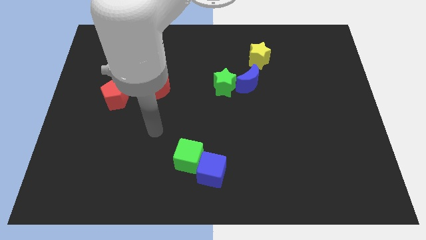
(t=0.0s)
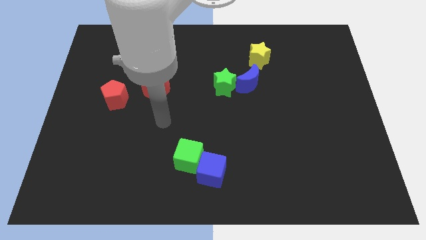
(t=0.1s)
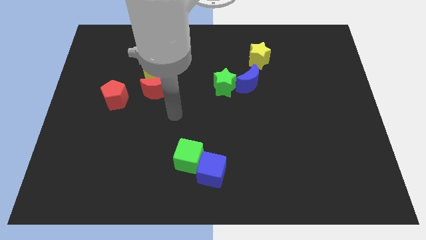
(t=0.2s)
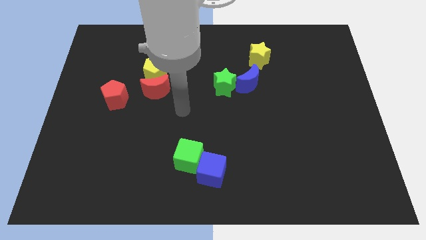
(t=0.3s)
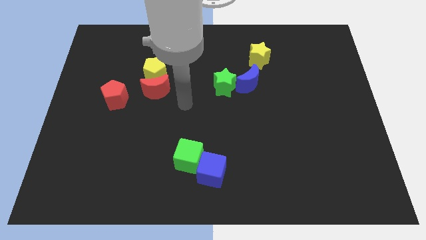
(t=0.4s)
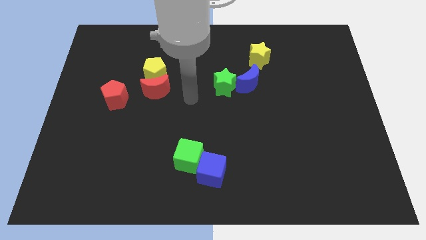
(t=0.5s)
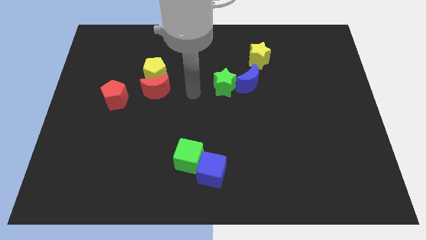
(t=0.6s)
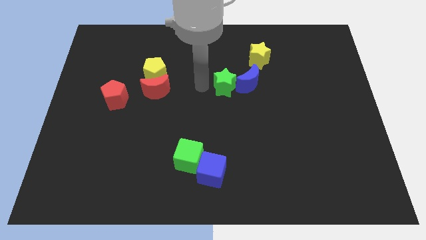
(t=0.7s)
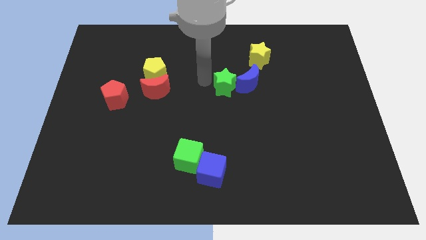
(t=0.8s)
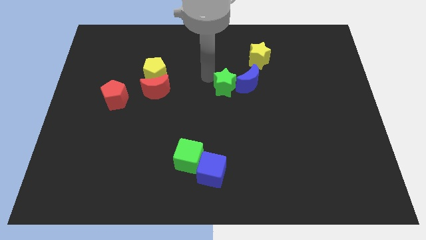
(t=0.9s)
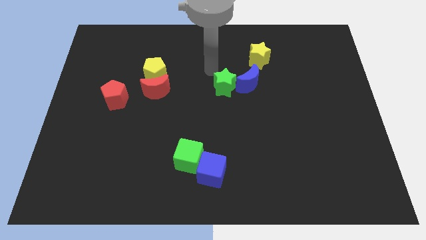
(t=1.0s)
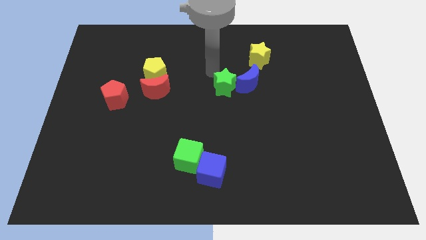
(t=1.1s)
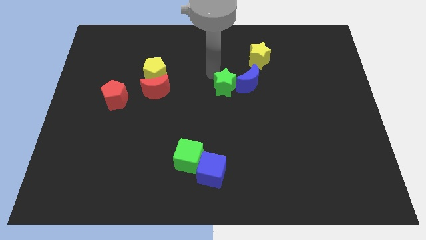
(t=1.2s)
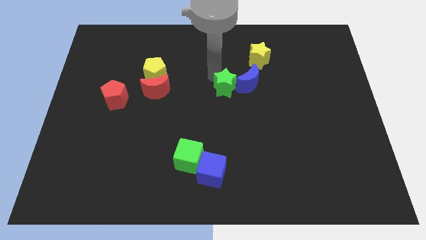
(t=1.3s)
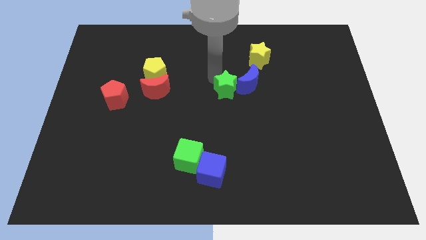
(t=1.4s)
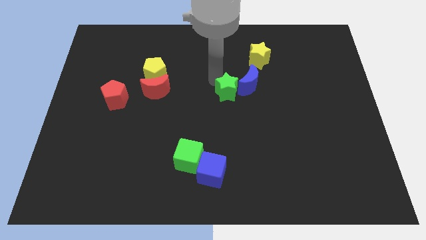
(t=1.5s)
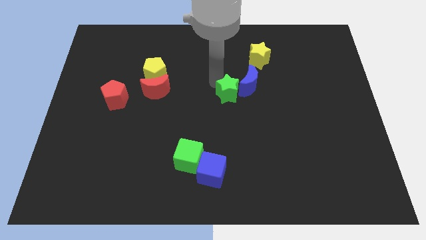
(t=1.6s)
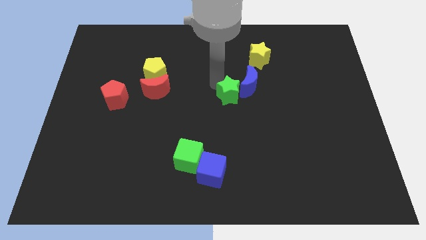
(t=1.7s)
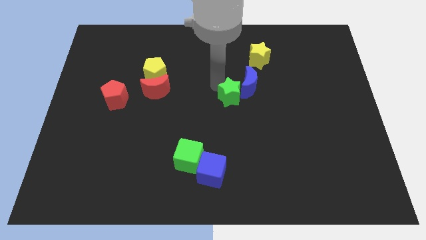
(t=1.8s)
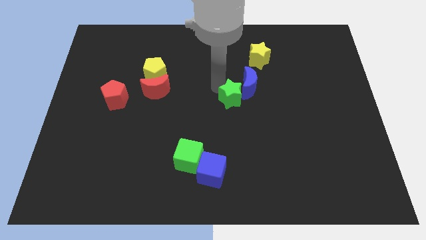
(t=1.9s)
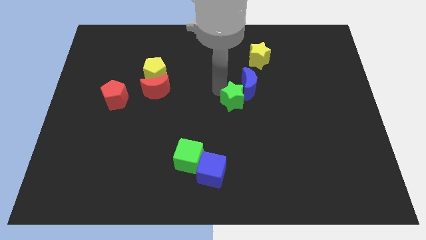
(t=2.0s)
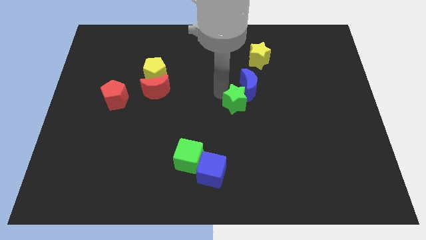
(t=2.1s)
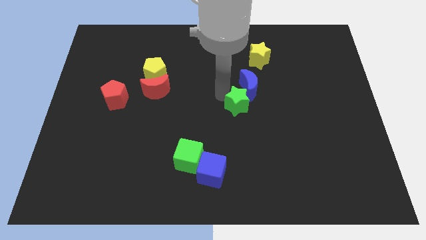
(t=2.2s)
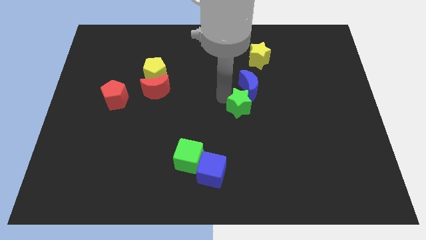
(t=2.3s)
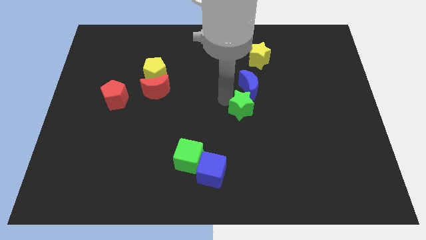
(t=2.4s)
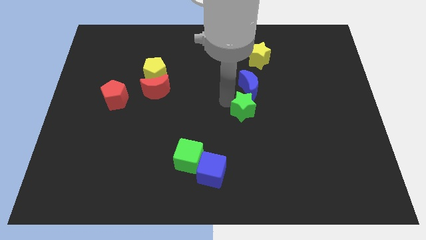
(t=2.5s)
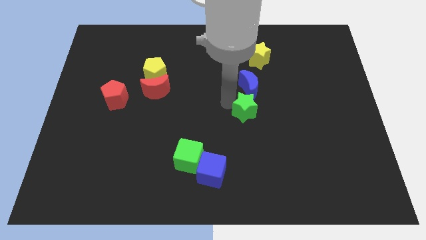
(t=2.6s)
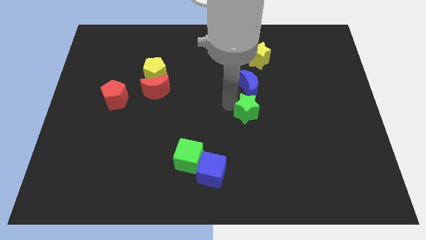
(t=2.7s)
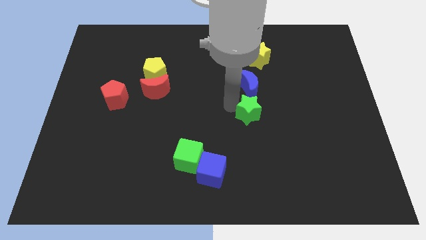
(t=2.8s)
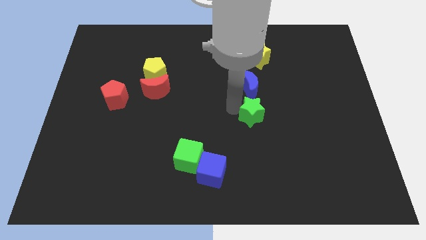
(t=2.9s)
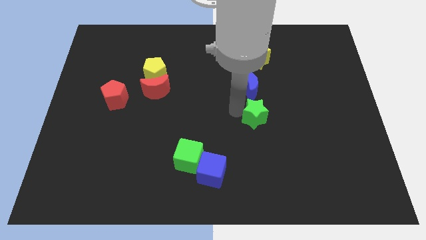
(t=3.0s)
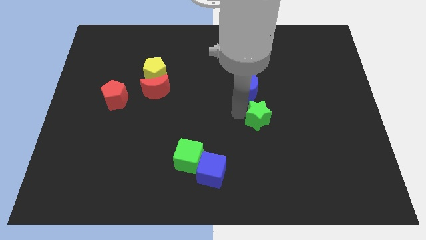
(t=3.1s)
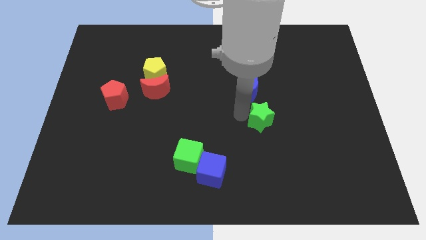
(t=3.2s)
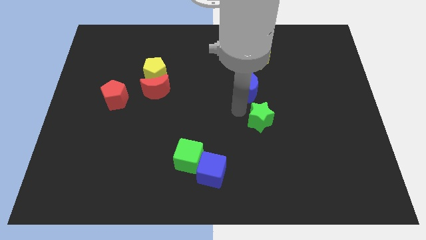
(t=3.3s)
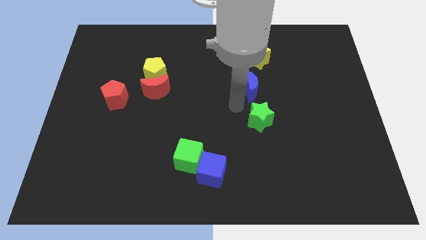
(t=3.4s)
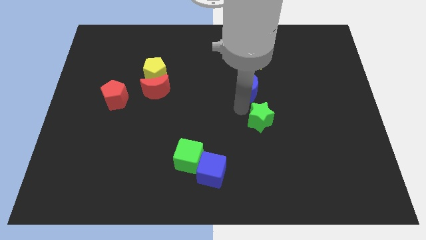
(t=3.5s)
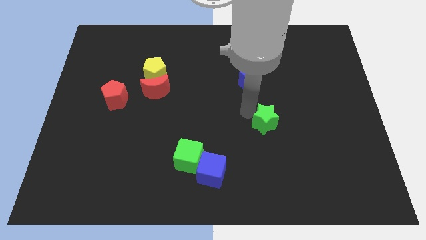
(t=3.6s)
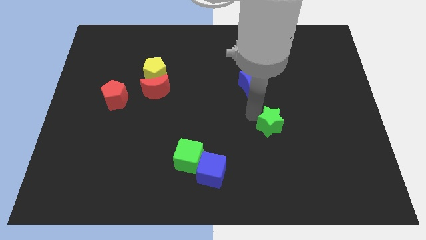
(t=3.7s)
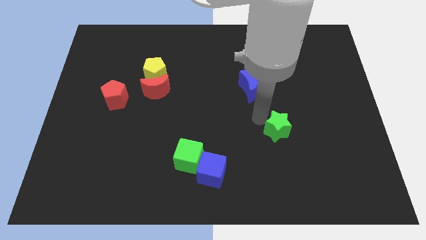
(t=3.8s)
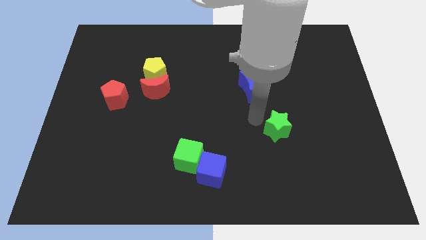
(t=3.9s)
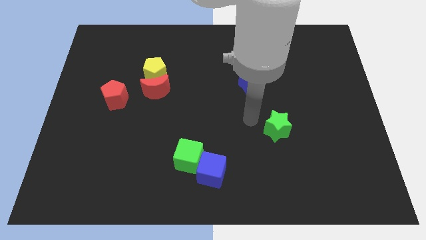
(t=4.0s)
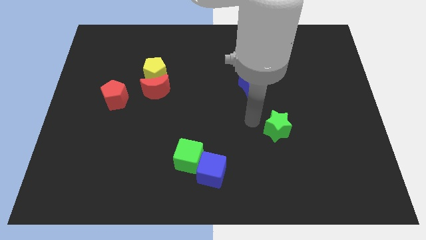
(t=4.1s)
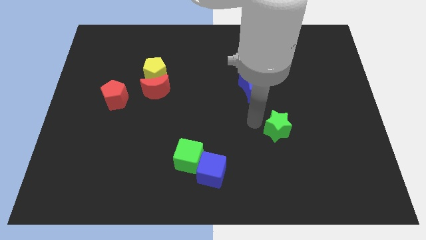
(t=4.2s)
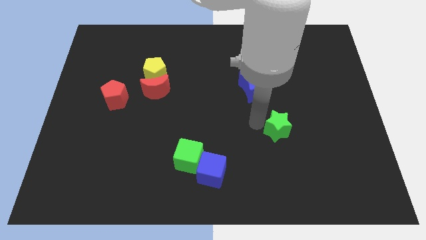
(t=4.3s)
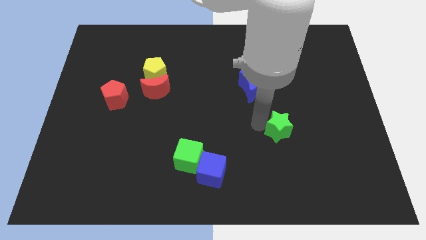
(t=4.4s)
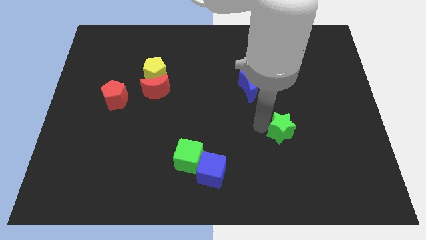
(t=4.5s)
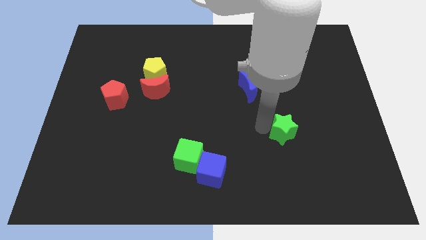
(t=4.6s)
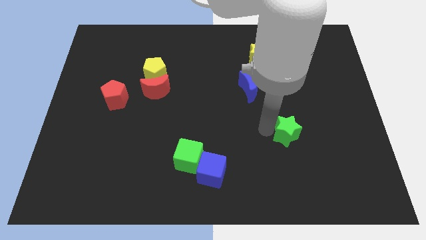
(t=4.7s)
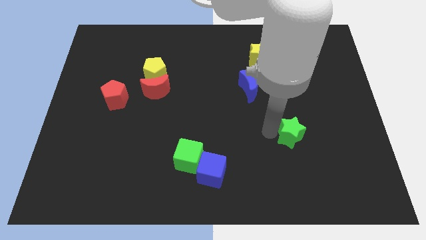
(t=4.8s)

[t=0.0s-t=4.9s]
move the green star down and then right

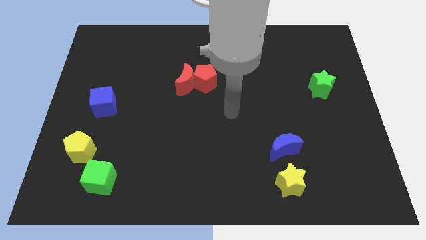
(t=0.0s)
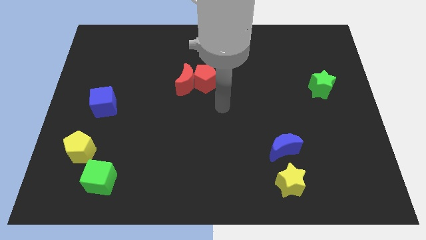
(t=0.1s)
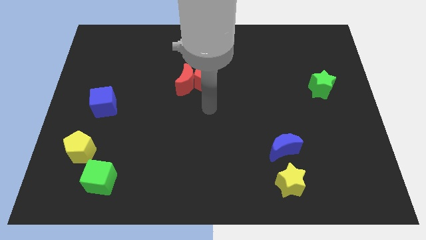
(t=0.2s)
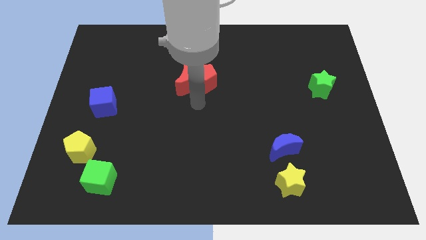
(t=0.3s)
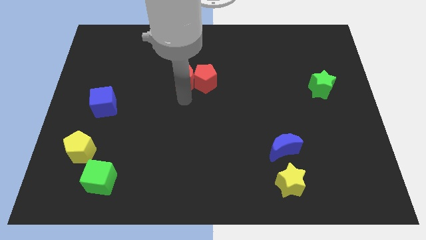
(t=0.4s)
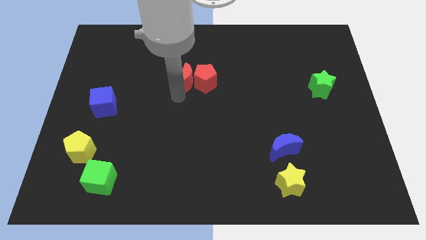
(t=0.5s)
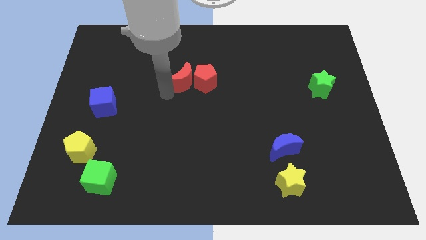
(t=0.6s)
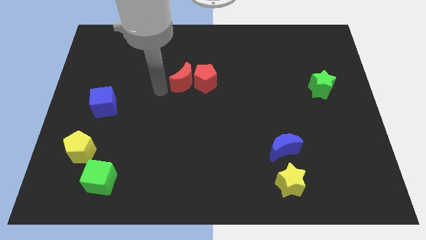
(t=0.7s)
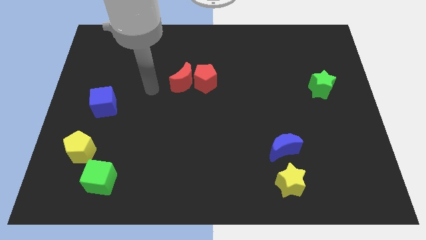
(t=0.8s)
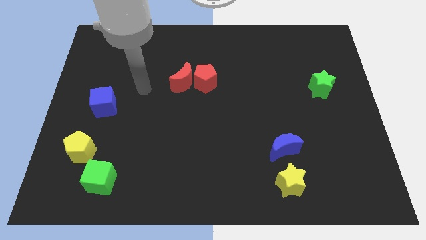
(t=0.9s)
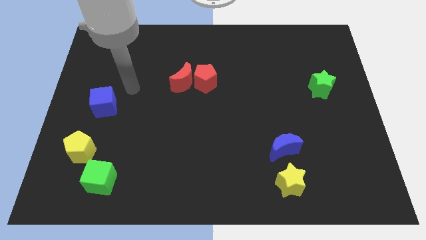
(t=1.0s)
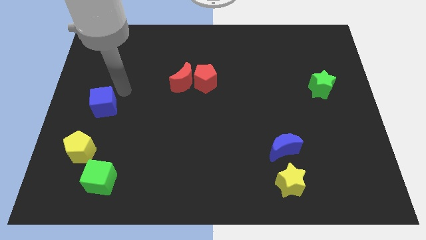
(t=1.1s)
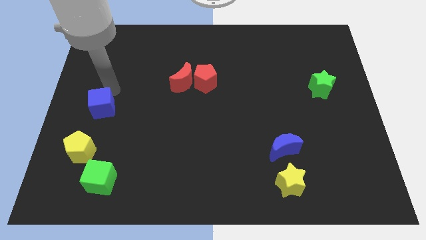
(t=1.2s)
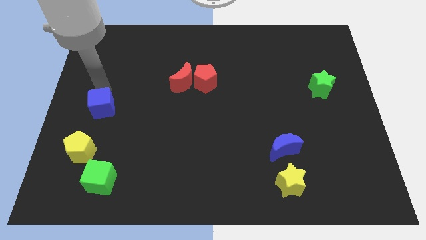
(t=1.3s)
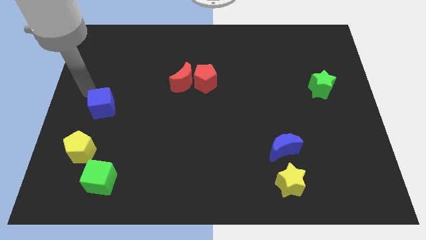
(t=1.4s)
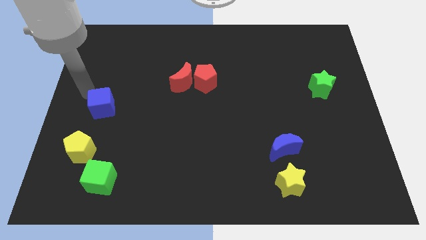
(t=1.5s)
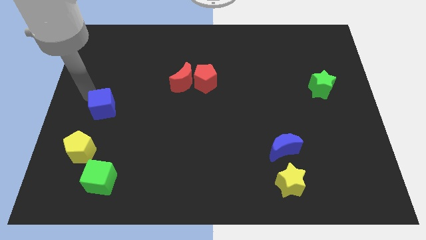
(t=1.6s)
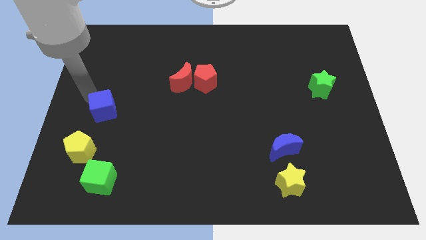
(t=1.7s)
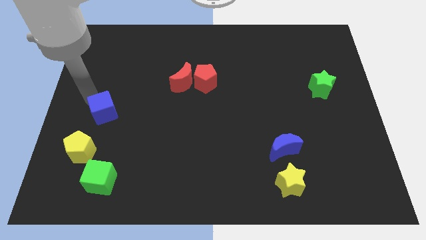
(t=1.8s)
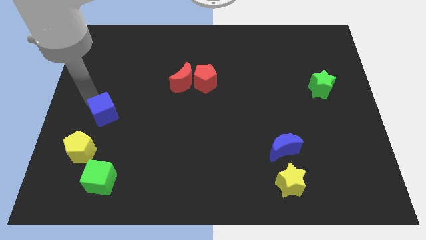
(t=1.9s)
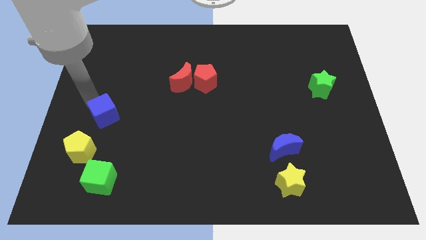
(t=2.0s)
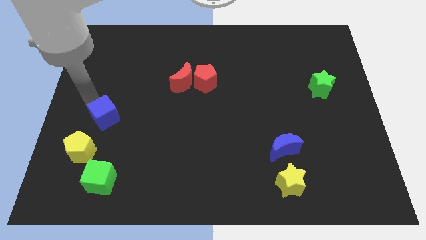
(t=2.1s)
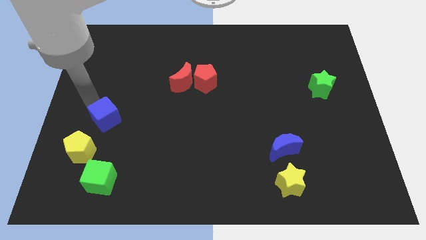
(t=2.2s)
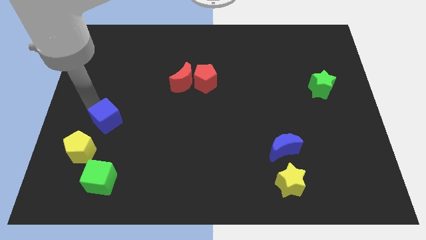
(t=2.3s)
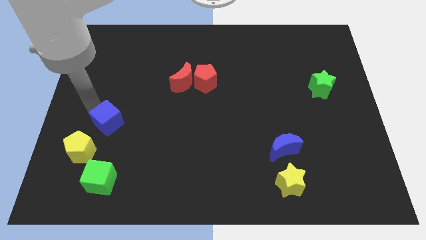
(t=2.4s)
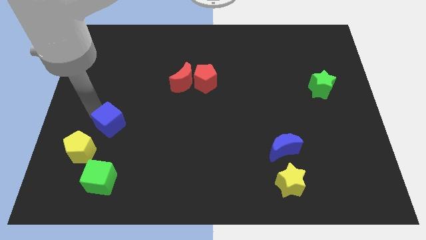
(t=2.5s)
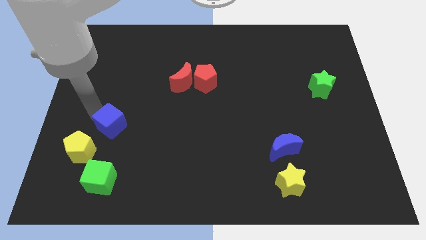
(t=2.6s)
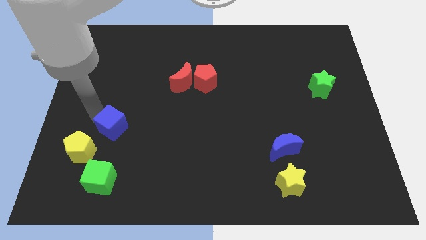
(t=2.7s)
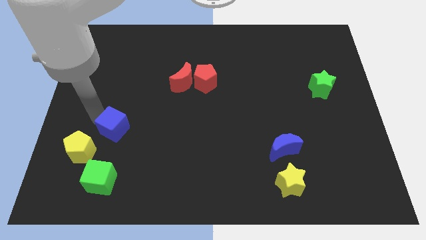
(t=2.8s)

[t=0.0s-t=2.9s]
slightly push the blue cube down and to the right
